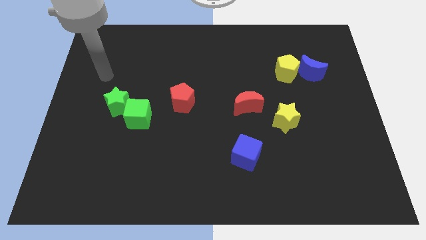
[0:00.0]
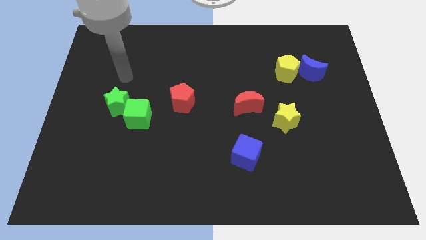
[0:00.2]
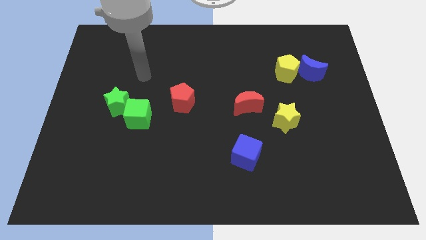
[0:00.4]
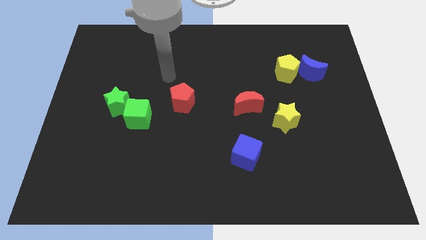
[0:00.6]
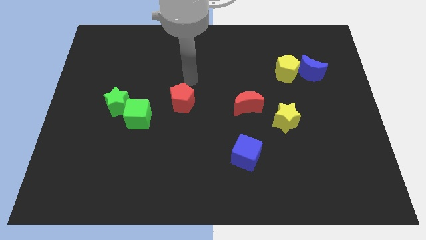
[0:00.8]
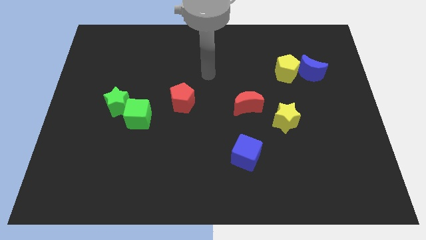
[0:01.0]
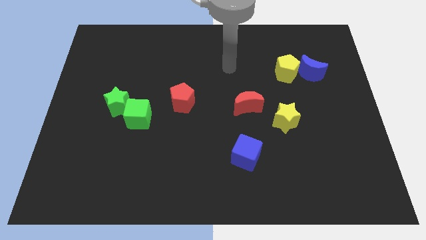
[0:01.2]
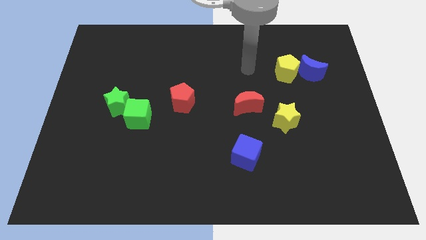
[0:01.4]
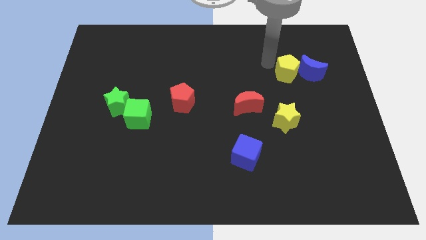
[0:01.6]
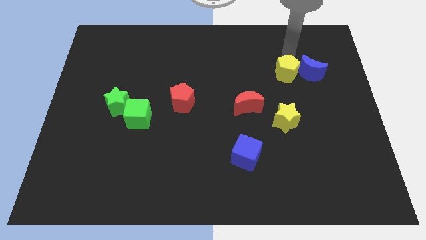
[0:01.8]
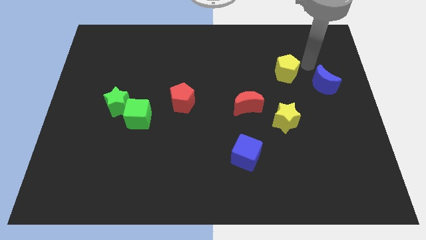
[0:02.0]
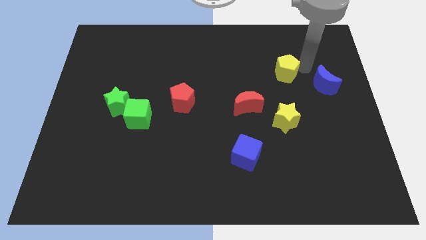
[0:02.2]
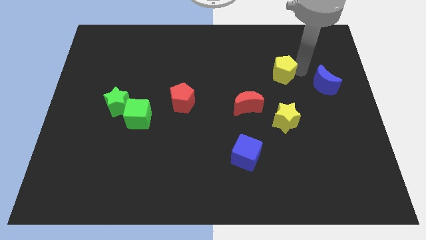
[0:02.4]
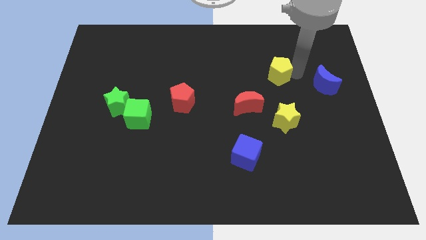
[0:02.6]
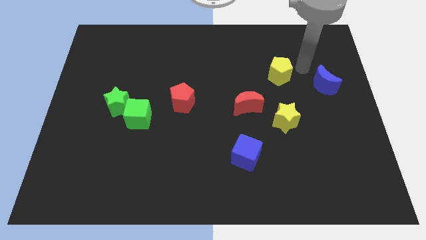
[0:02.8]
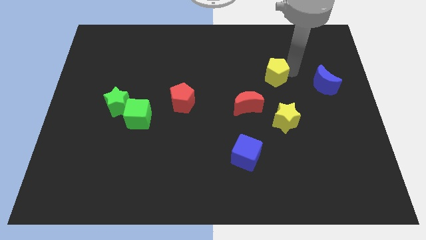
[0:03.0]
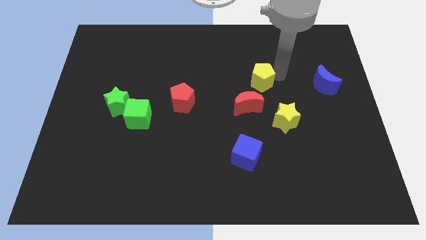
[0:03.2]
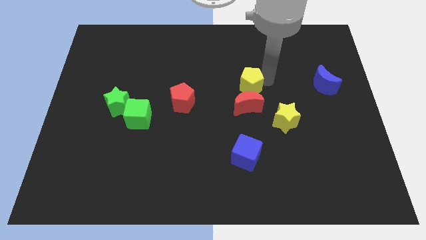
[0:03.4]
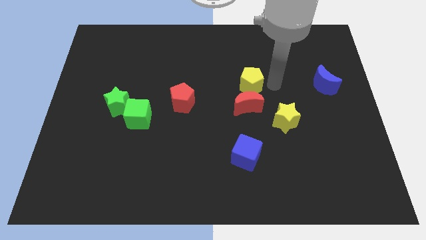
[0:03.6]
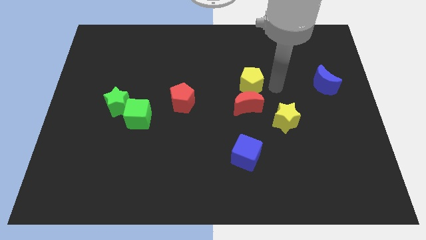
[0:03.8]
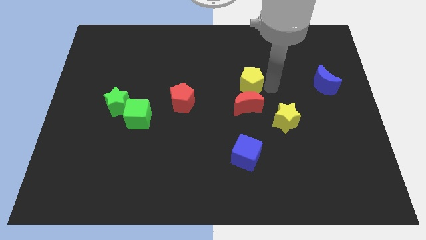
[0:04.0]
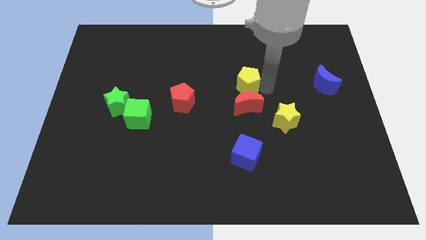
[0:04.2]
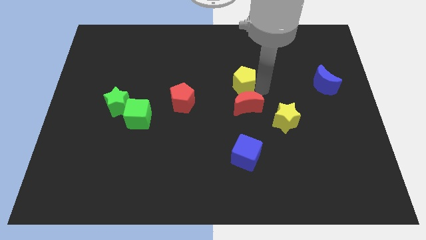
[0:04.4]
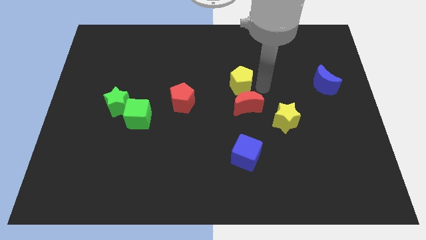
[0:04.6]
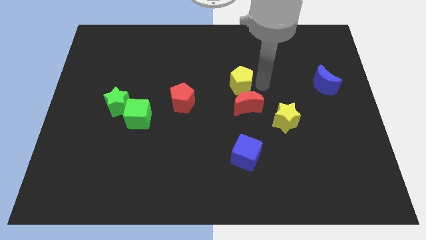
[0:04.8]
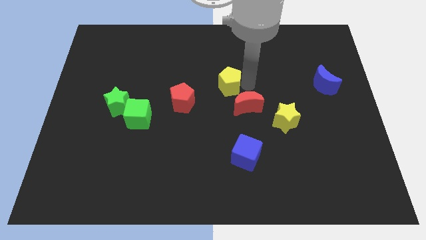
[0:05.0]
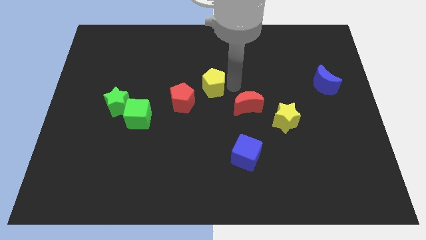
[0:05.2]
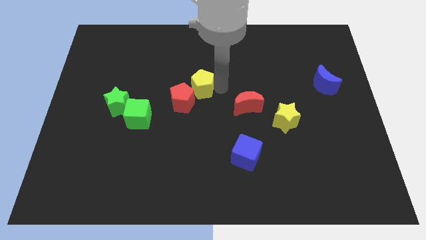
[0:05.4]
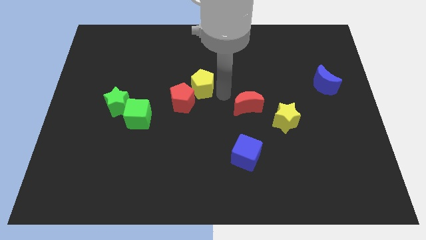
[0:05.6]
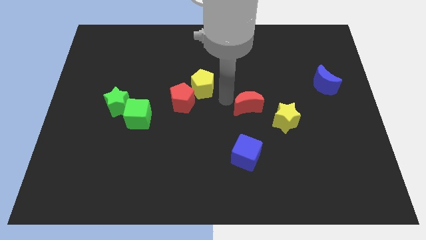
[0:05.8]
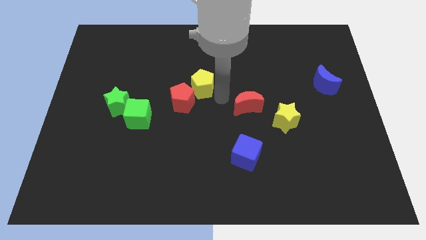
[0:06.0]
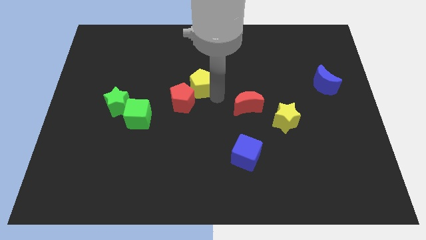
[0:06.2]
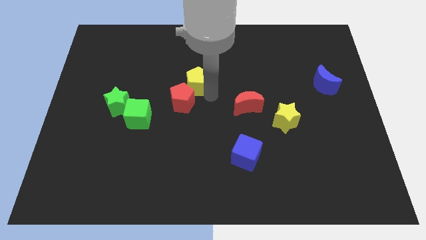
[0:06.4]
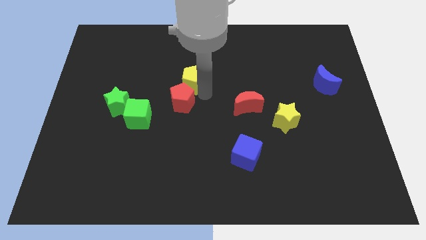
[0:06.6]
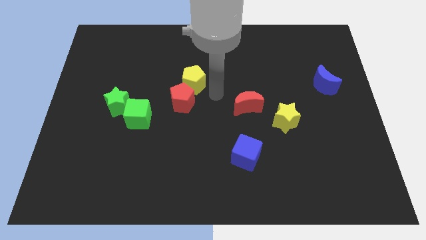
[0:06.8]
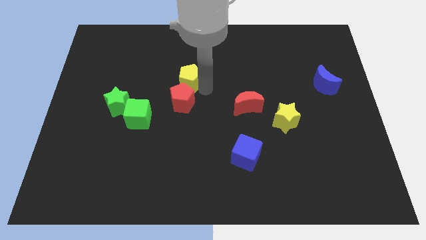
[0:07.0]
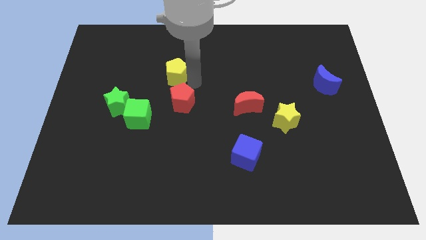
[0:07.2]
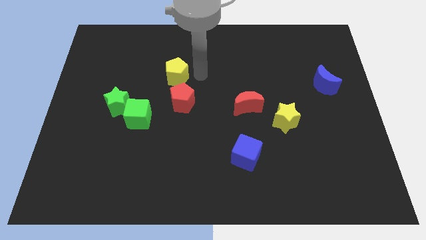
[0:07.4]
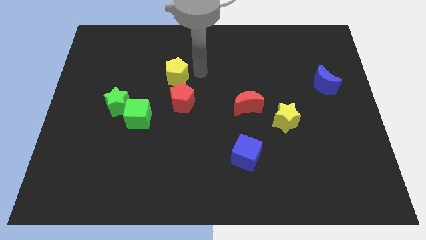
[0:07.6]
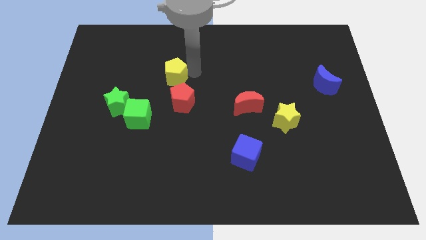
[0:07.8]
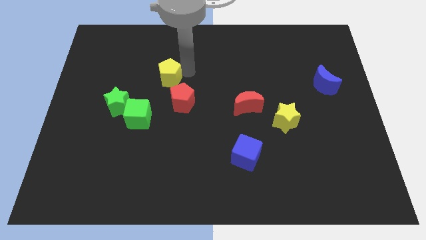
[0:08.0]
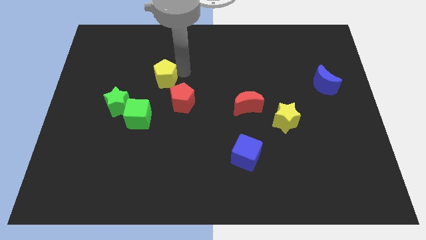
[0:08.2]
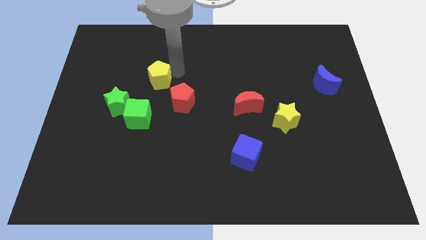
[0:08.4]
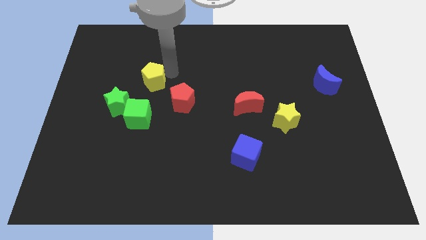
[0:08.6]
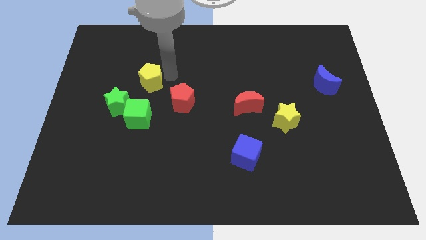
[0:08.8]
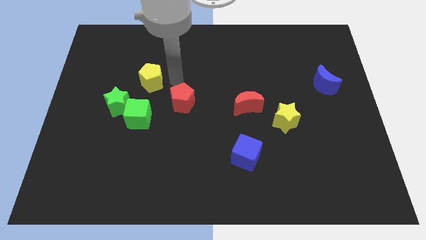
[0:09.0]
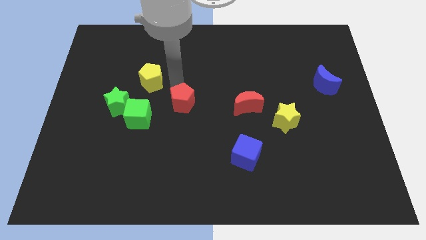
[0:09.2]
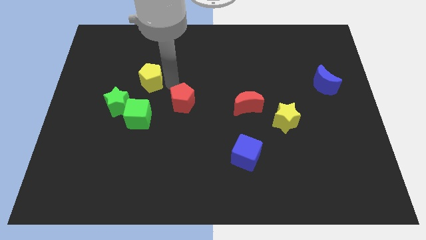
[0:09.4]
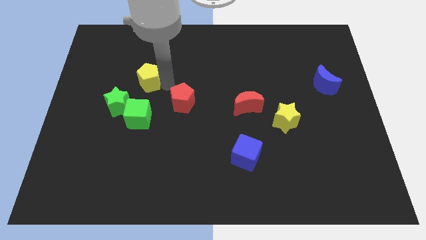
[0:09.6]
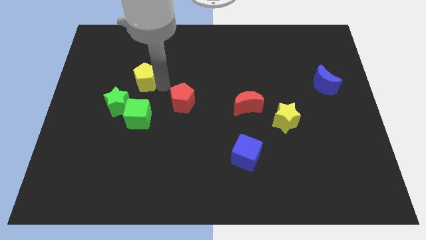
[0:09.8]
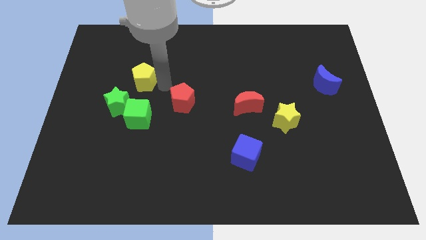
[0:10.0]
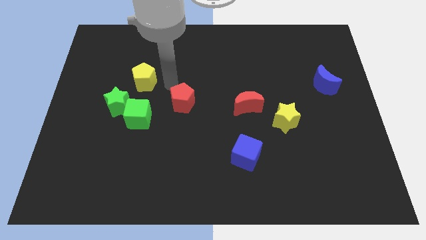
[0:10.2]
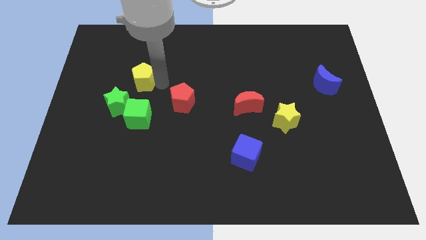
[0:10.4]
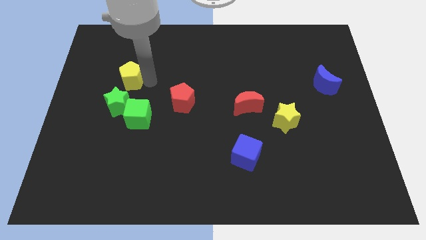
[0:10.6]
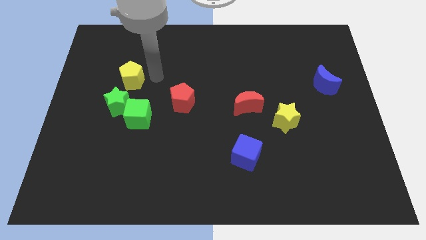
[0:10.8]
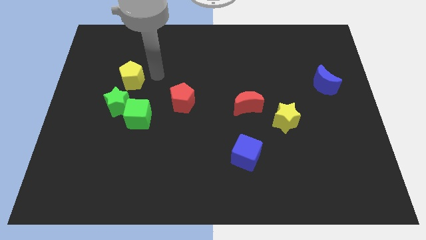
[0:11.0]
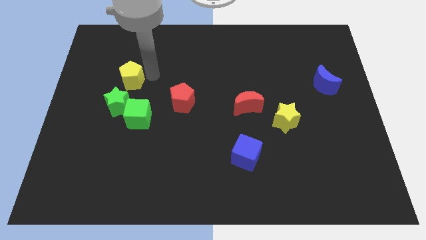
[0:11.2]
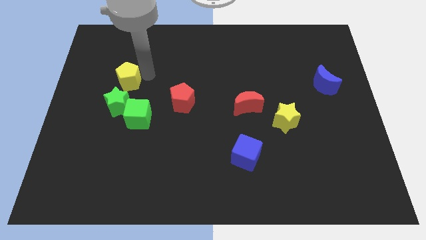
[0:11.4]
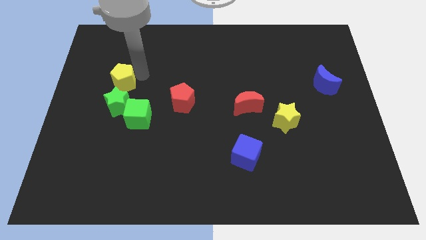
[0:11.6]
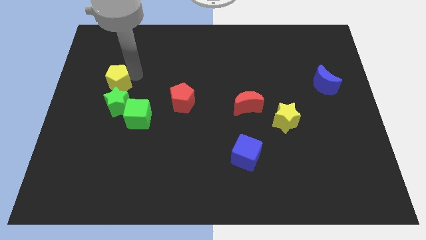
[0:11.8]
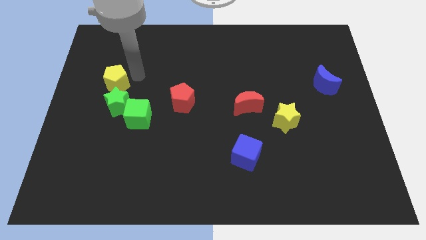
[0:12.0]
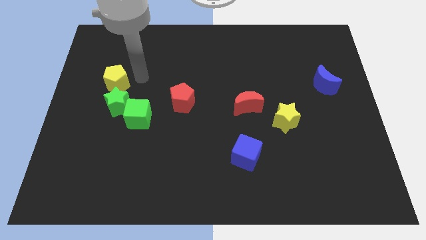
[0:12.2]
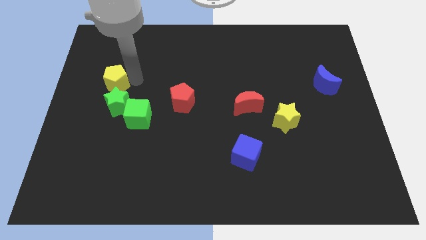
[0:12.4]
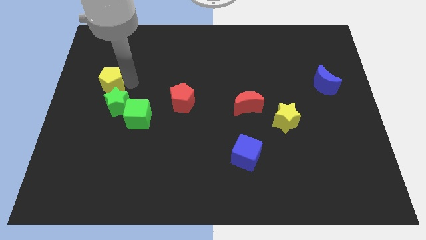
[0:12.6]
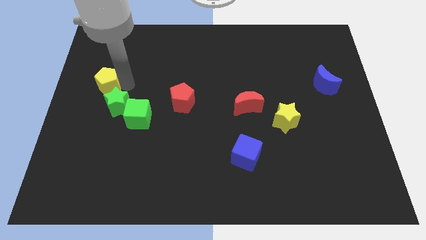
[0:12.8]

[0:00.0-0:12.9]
put the yellow pentagon to the center left
